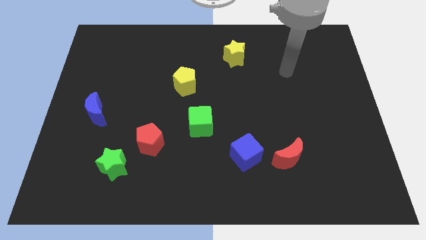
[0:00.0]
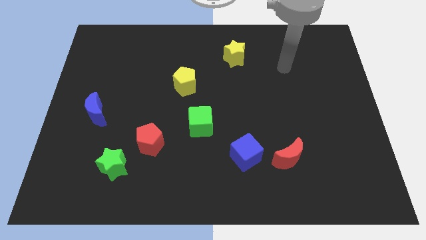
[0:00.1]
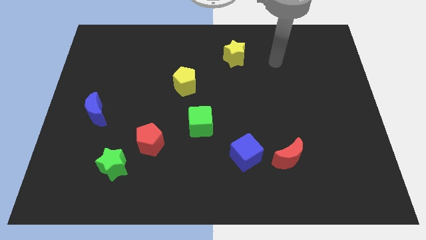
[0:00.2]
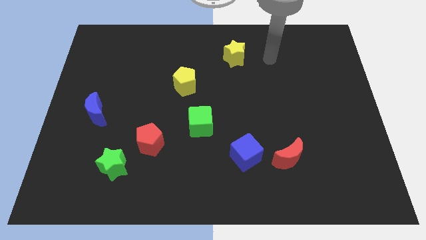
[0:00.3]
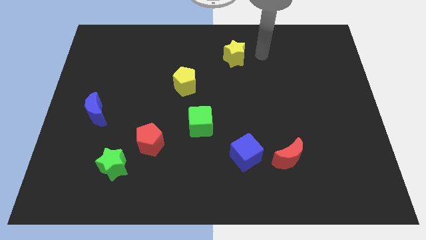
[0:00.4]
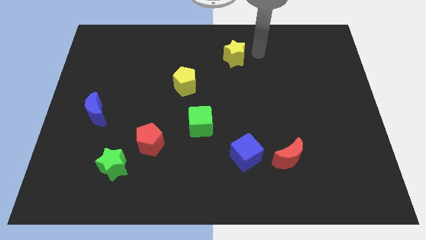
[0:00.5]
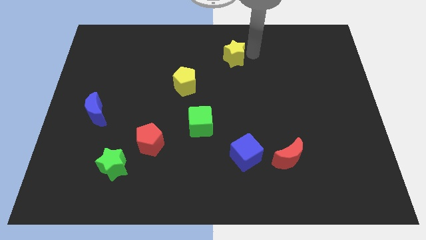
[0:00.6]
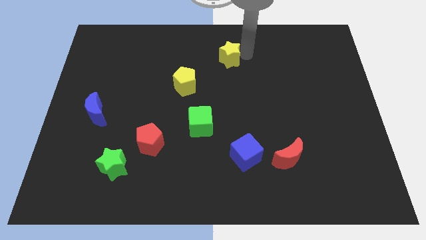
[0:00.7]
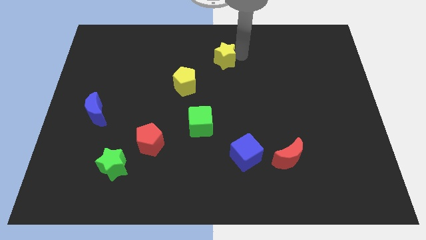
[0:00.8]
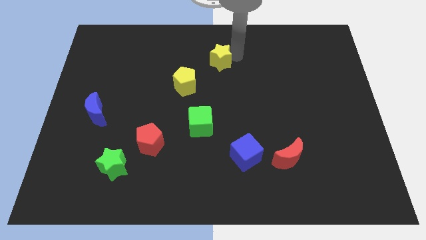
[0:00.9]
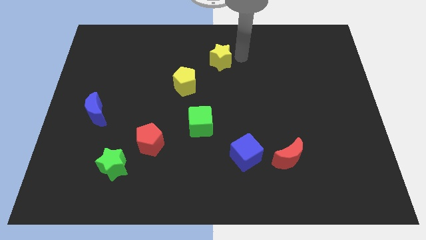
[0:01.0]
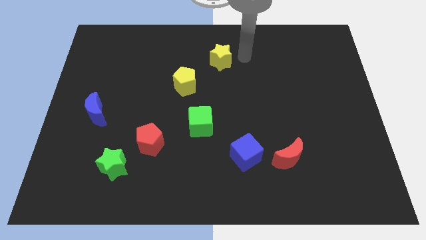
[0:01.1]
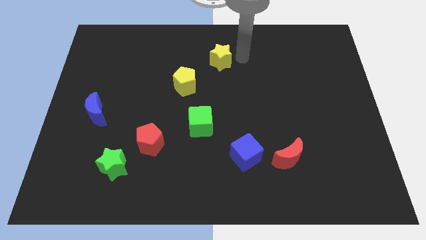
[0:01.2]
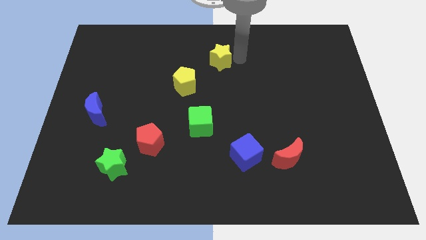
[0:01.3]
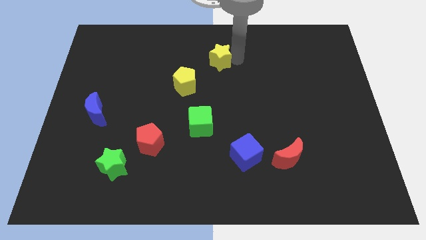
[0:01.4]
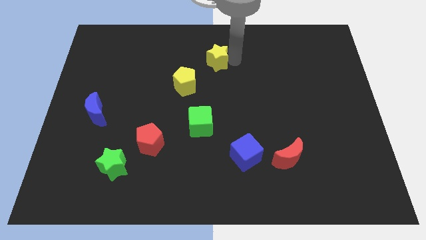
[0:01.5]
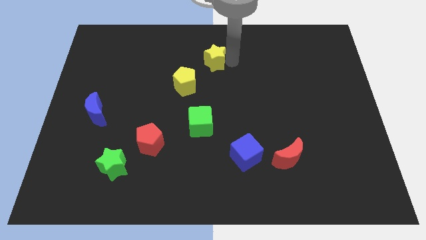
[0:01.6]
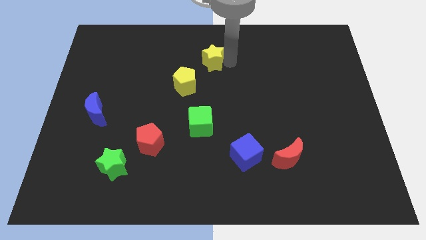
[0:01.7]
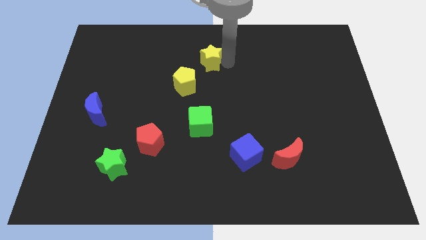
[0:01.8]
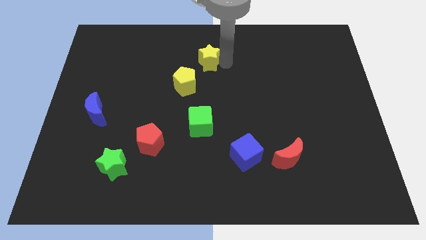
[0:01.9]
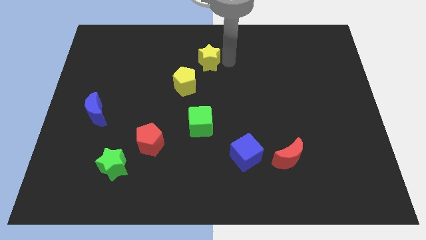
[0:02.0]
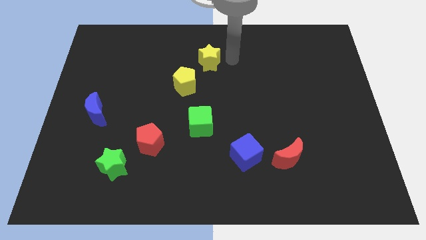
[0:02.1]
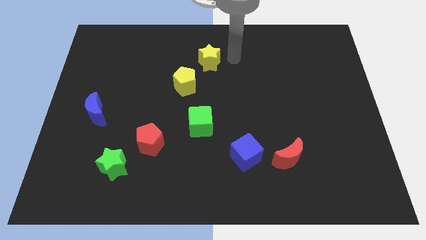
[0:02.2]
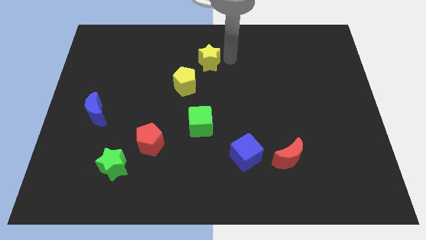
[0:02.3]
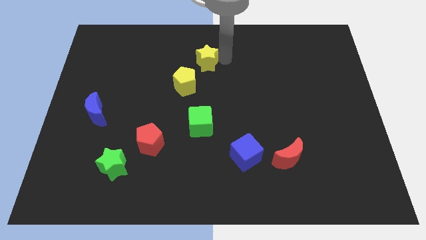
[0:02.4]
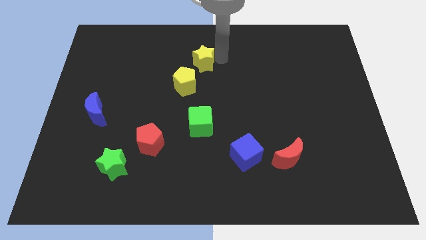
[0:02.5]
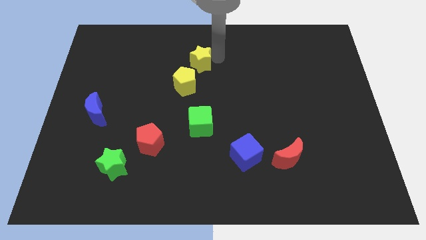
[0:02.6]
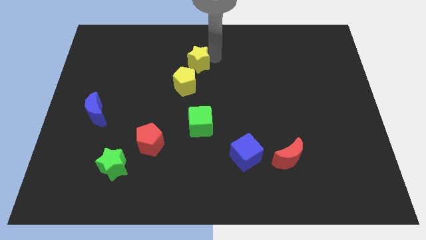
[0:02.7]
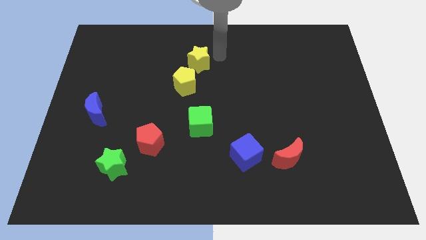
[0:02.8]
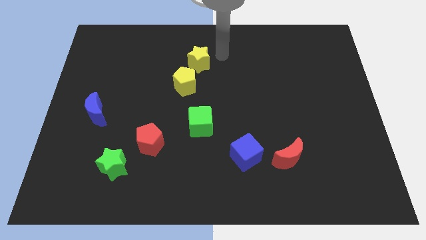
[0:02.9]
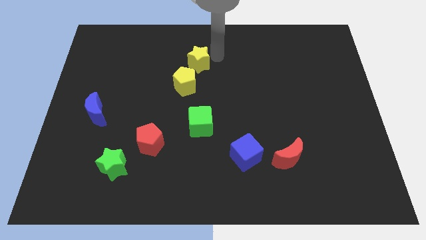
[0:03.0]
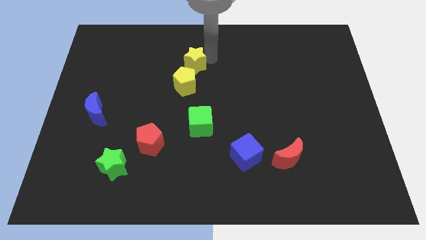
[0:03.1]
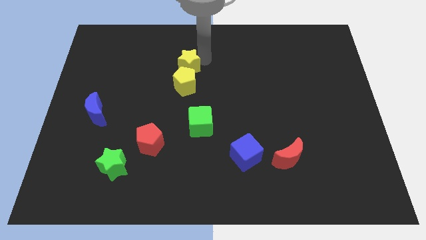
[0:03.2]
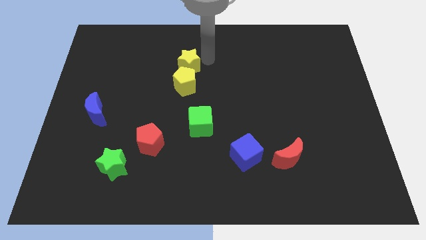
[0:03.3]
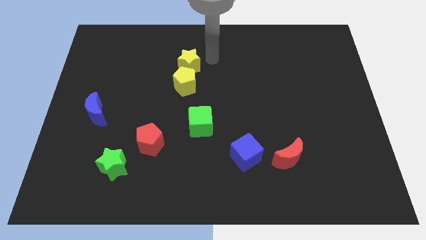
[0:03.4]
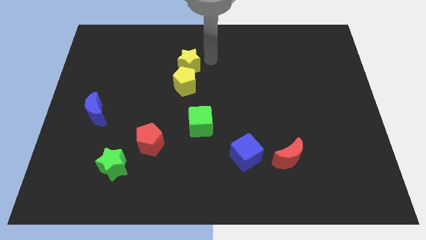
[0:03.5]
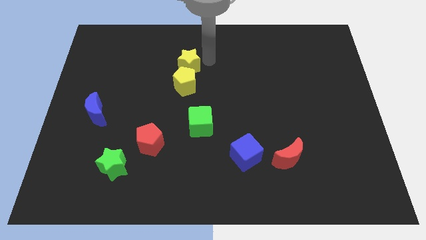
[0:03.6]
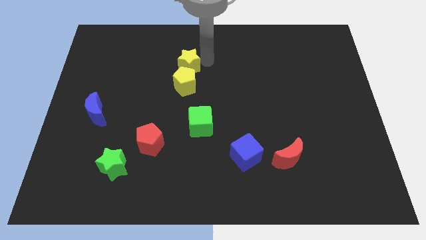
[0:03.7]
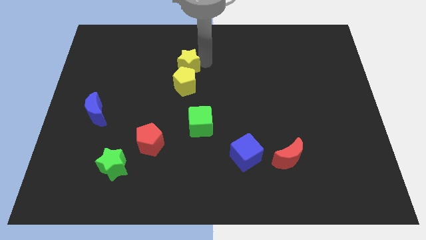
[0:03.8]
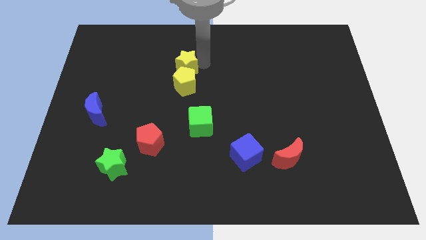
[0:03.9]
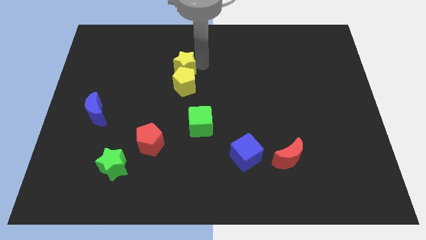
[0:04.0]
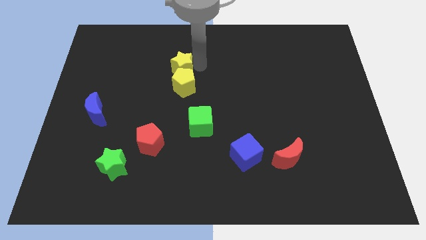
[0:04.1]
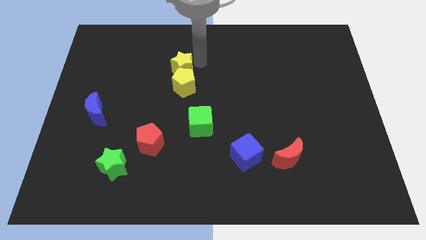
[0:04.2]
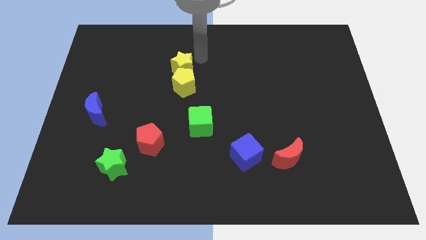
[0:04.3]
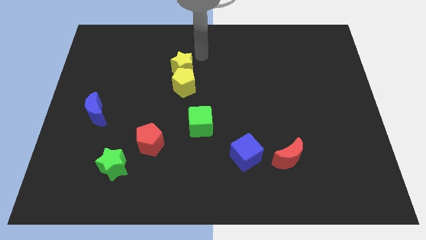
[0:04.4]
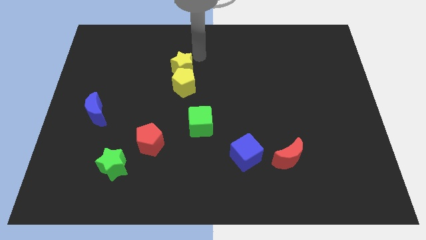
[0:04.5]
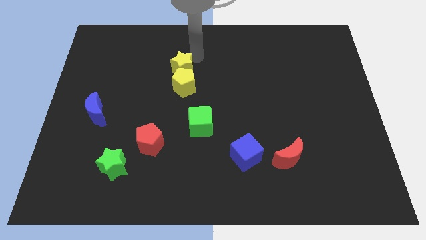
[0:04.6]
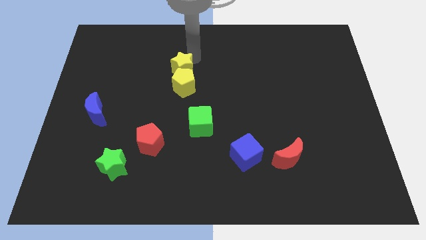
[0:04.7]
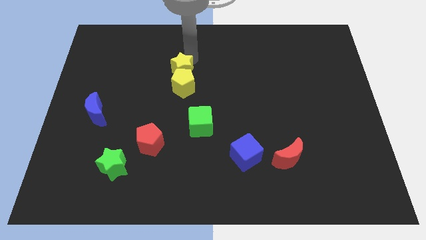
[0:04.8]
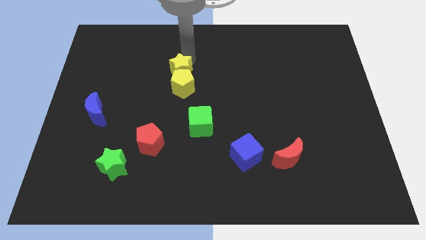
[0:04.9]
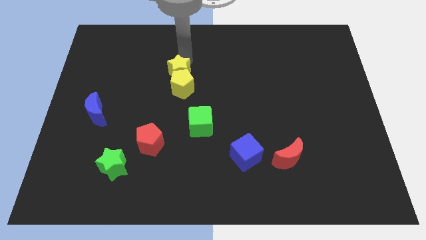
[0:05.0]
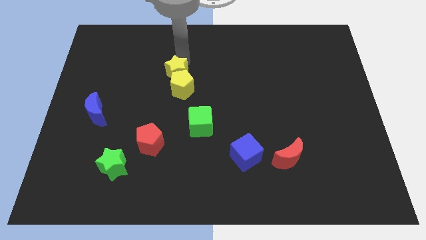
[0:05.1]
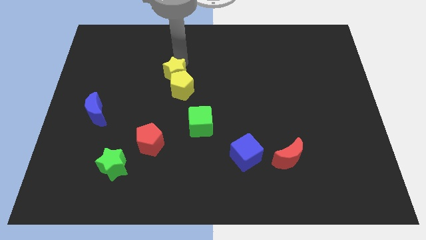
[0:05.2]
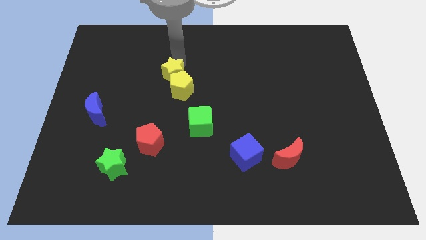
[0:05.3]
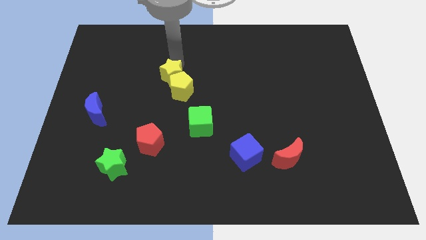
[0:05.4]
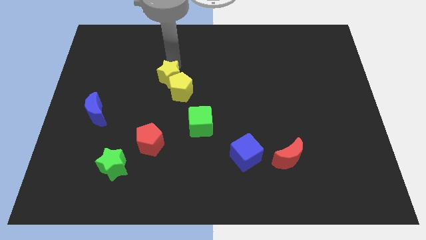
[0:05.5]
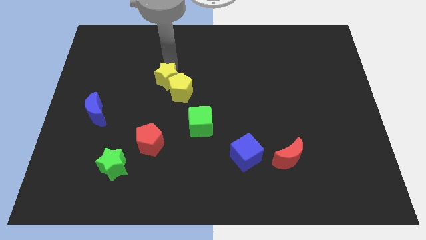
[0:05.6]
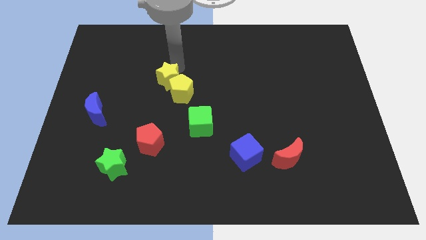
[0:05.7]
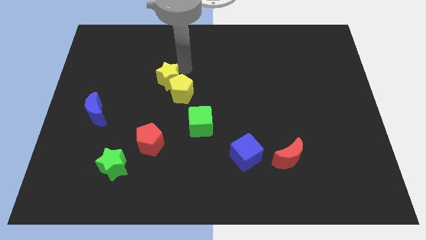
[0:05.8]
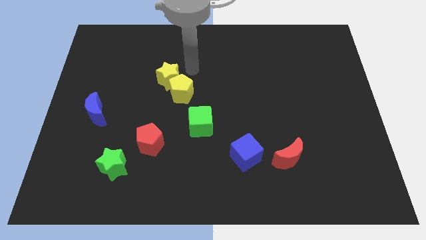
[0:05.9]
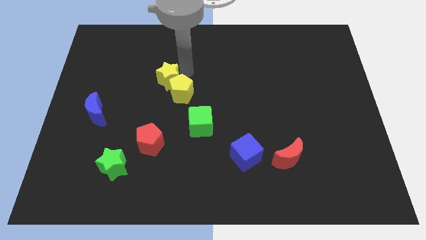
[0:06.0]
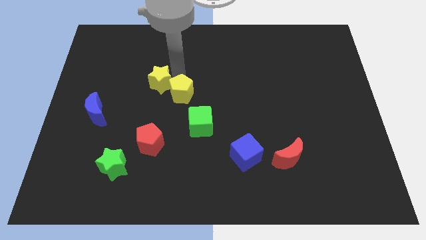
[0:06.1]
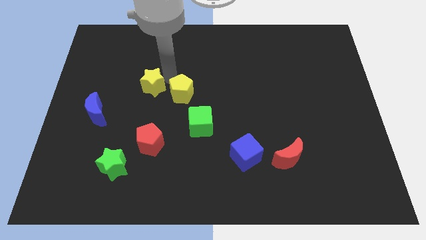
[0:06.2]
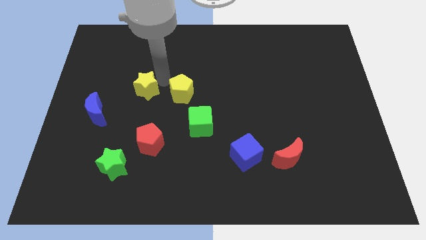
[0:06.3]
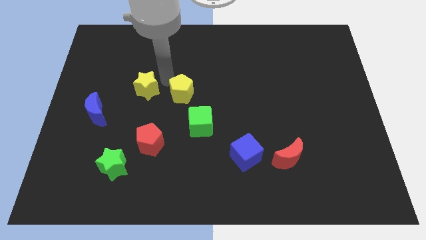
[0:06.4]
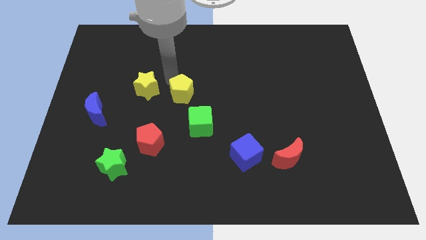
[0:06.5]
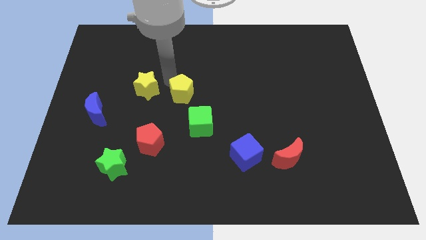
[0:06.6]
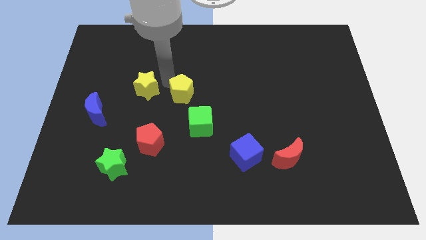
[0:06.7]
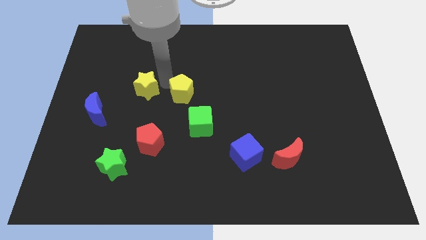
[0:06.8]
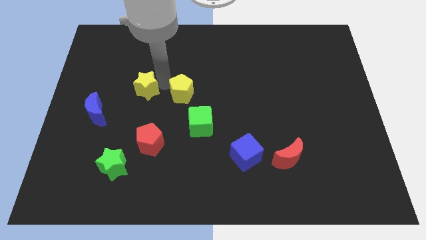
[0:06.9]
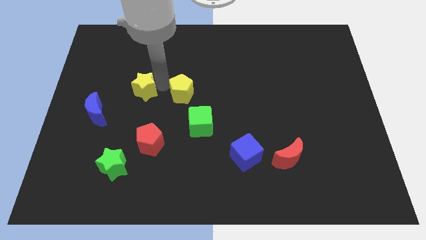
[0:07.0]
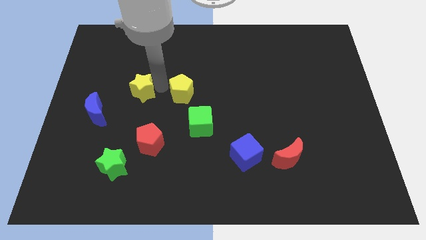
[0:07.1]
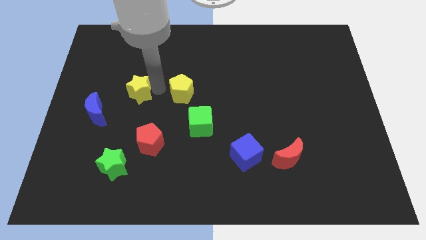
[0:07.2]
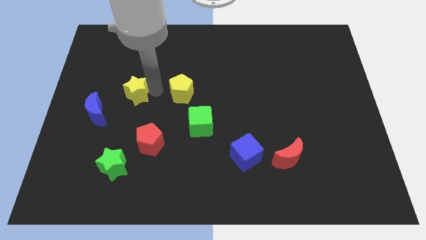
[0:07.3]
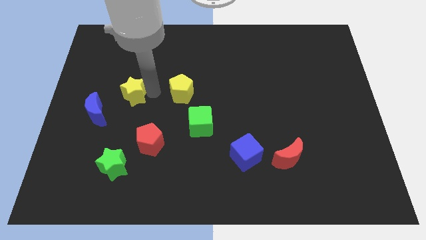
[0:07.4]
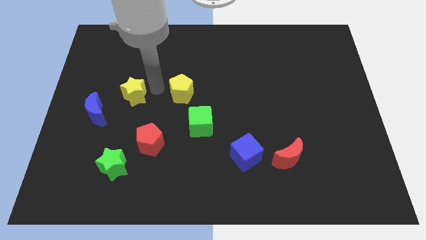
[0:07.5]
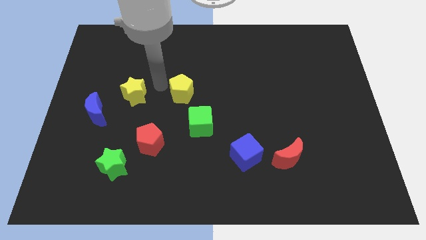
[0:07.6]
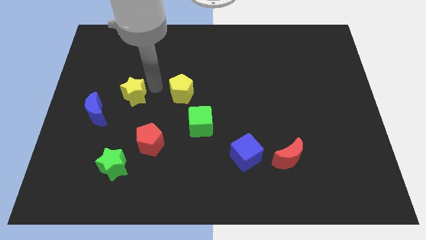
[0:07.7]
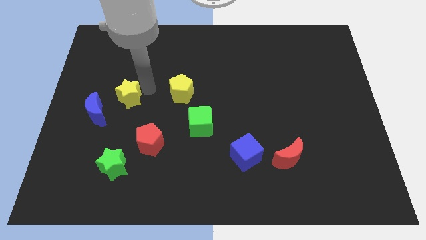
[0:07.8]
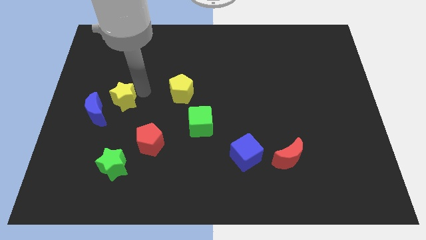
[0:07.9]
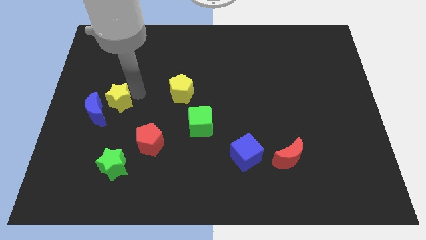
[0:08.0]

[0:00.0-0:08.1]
move the yellow star next to the blue moon
